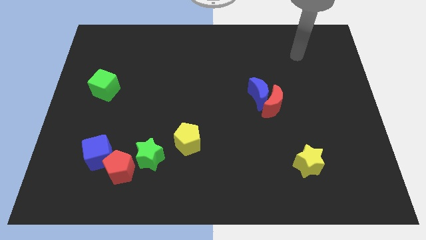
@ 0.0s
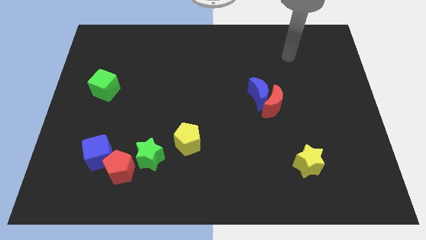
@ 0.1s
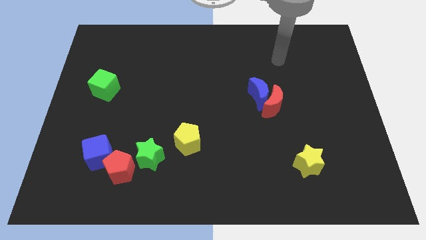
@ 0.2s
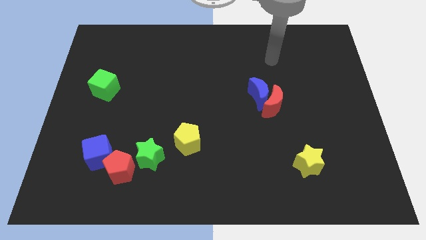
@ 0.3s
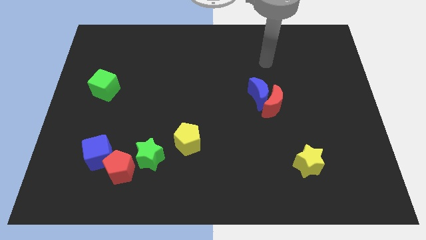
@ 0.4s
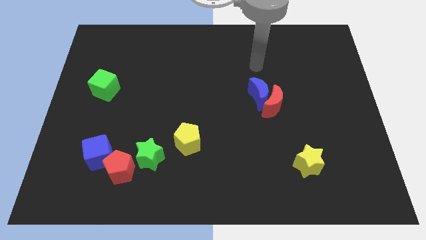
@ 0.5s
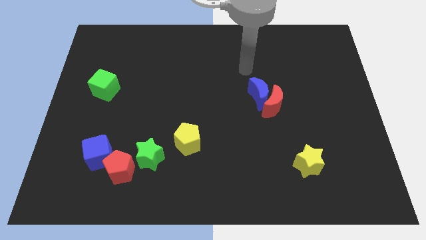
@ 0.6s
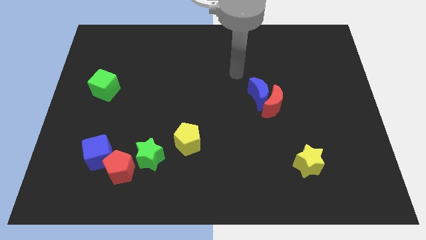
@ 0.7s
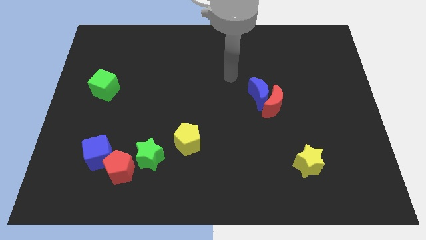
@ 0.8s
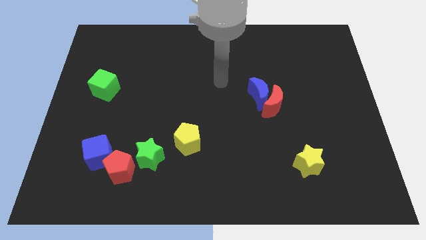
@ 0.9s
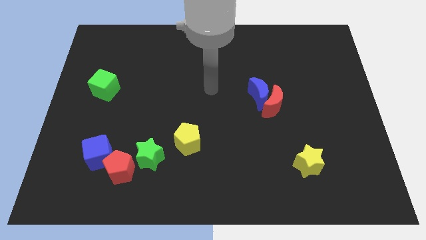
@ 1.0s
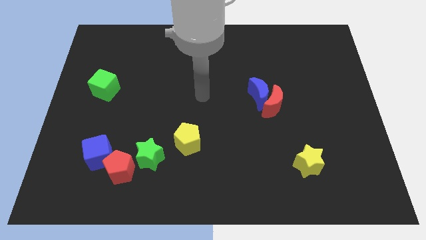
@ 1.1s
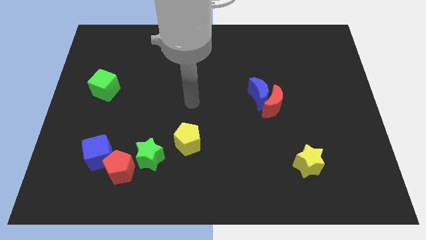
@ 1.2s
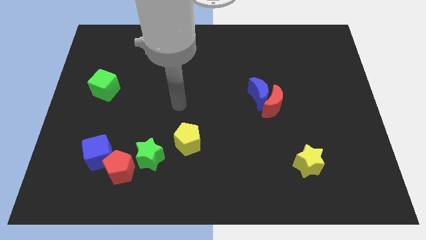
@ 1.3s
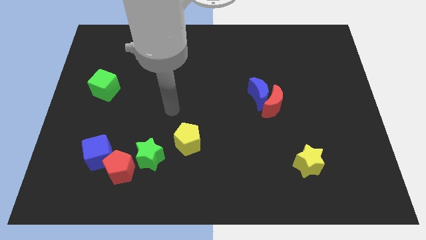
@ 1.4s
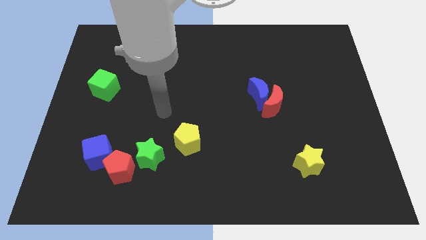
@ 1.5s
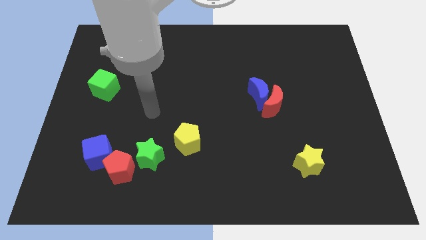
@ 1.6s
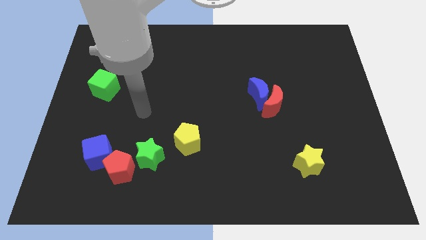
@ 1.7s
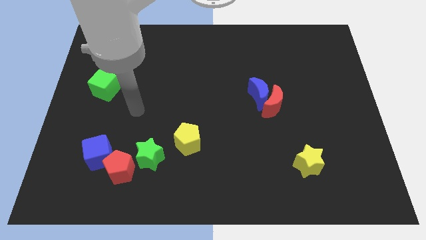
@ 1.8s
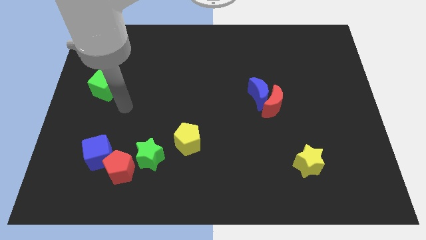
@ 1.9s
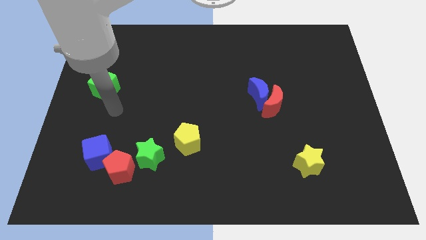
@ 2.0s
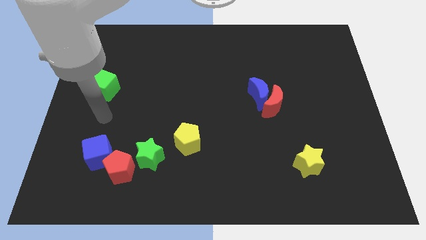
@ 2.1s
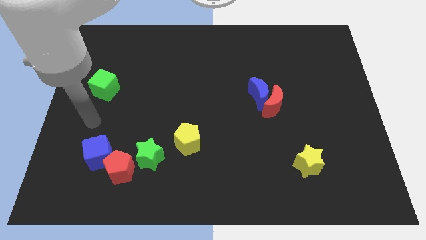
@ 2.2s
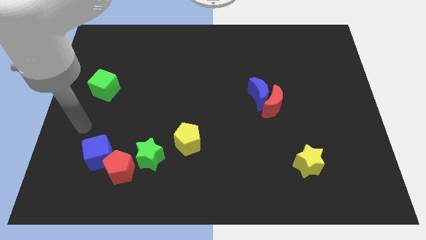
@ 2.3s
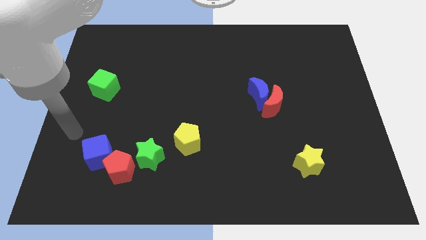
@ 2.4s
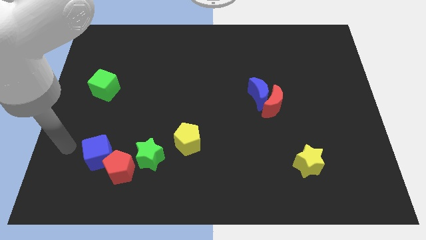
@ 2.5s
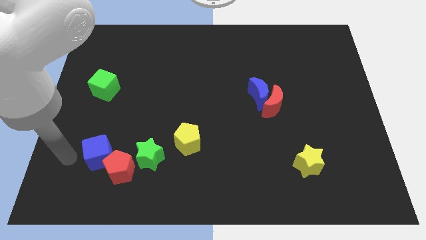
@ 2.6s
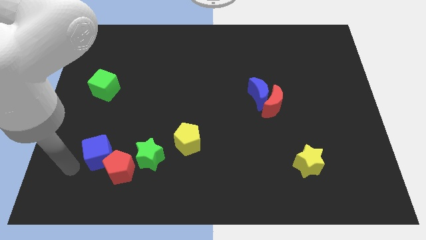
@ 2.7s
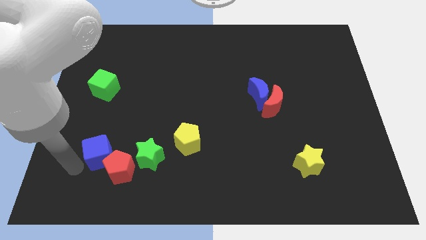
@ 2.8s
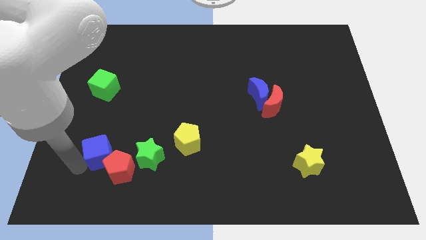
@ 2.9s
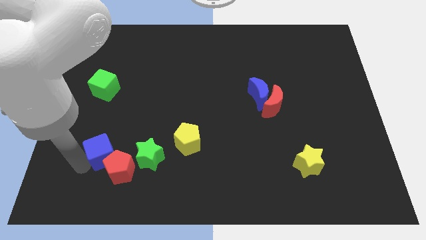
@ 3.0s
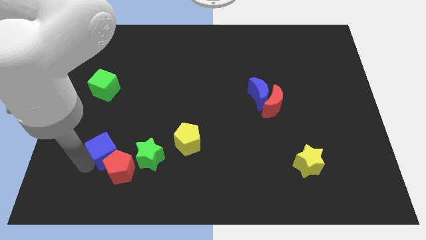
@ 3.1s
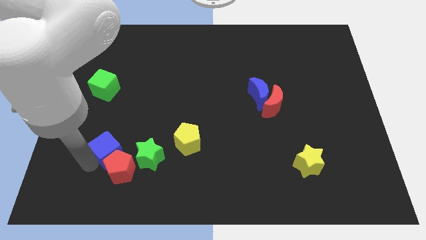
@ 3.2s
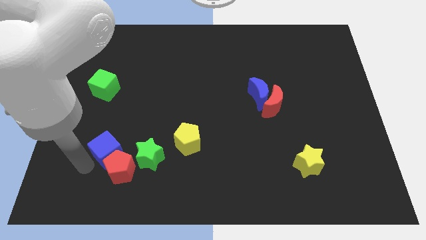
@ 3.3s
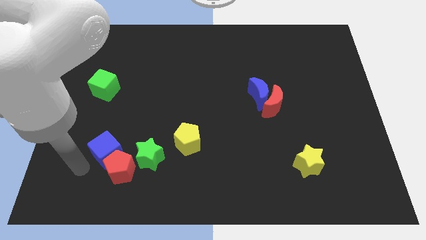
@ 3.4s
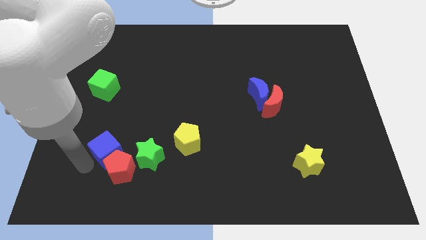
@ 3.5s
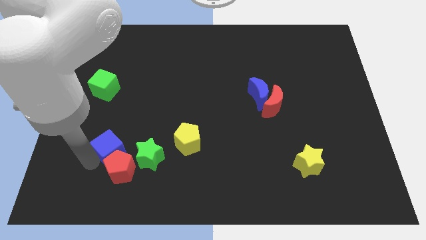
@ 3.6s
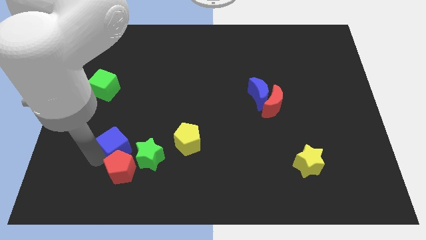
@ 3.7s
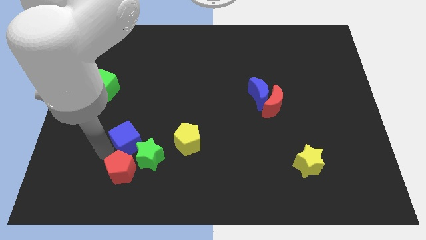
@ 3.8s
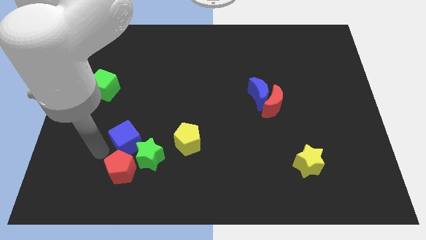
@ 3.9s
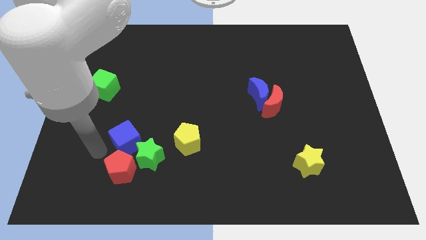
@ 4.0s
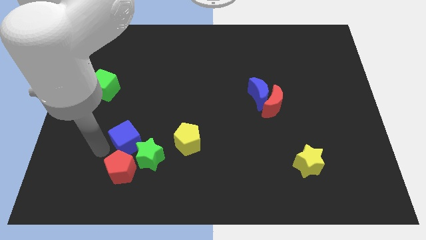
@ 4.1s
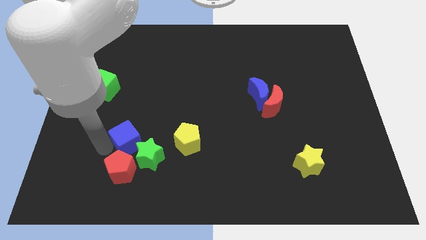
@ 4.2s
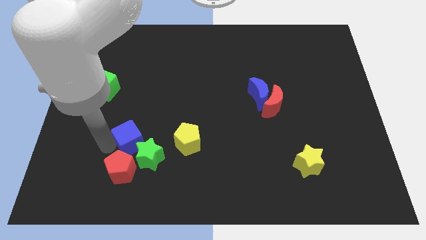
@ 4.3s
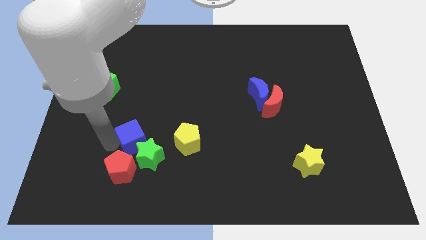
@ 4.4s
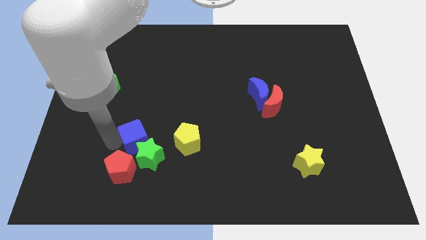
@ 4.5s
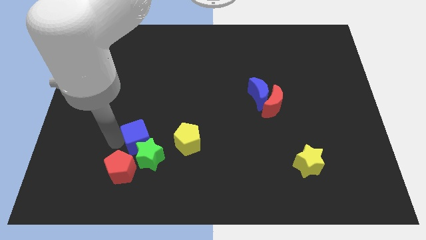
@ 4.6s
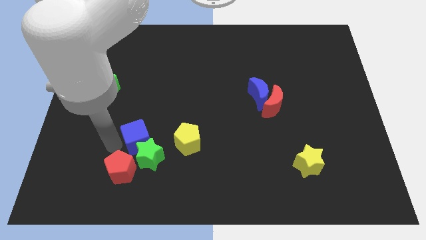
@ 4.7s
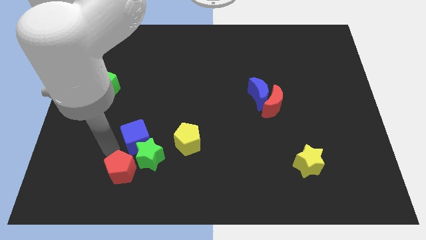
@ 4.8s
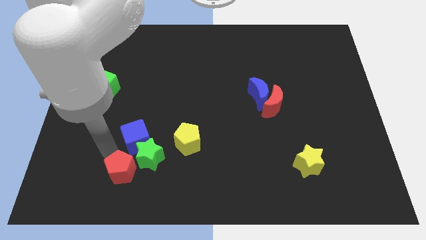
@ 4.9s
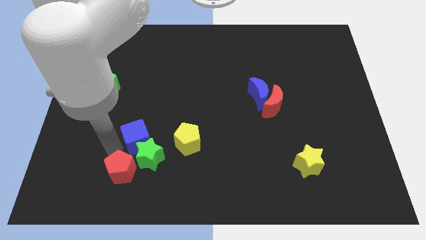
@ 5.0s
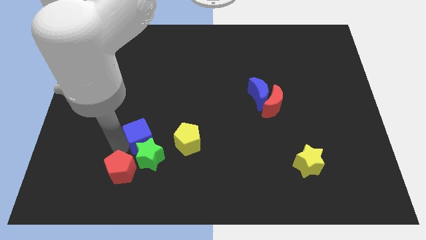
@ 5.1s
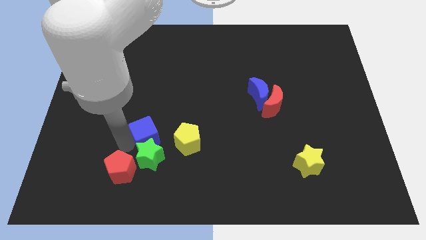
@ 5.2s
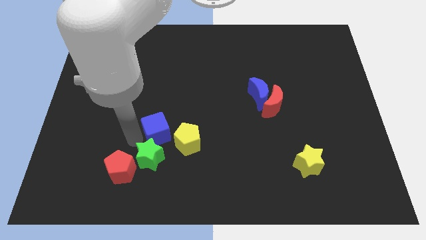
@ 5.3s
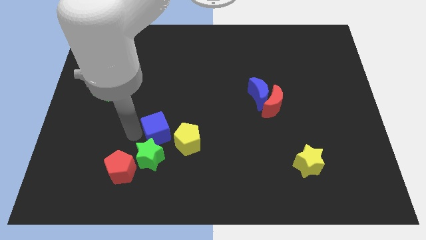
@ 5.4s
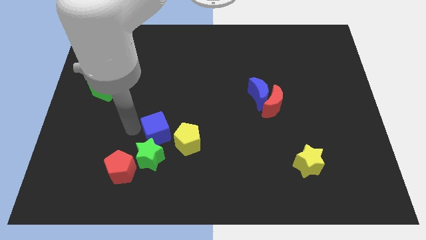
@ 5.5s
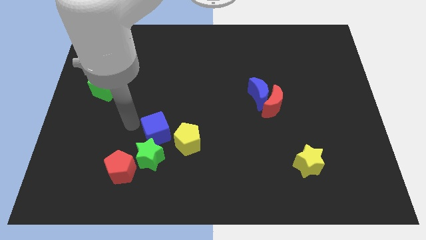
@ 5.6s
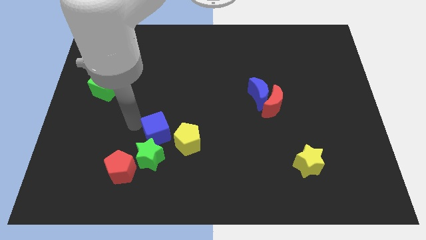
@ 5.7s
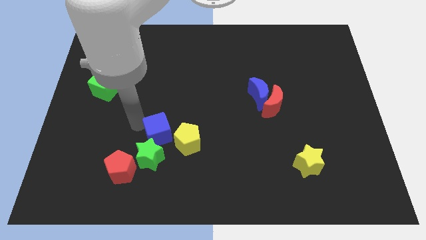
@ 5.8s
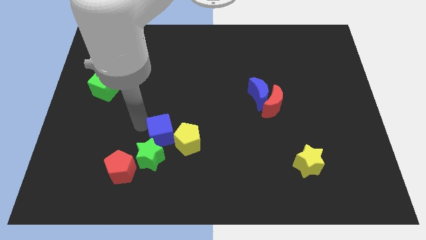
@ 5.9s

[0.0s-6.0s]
slide the blue cube towards the yellow pentagon
